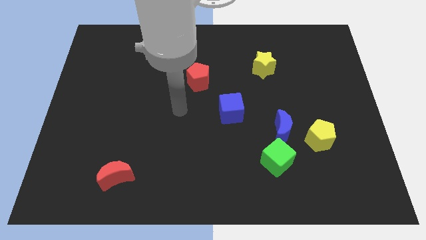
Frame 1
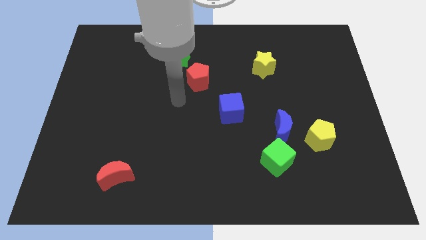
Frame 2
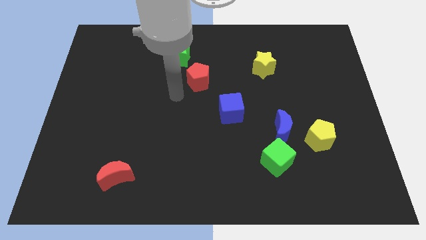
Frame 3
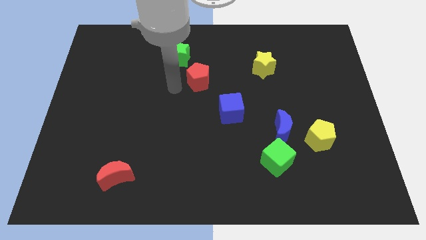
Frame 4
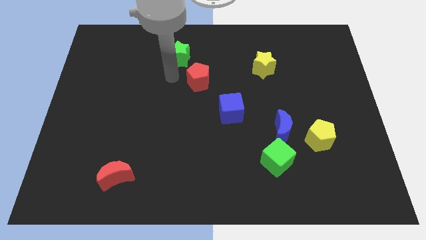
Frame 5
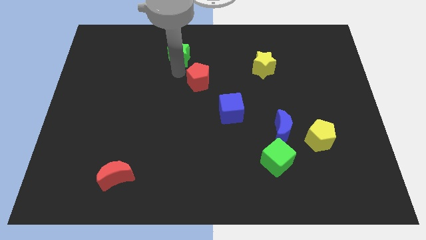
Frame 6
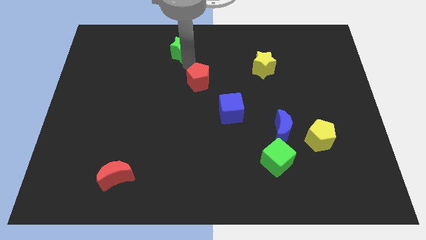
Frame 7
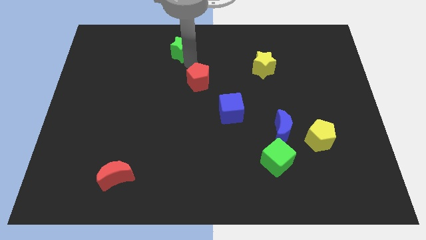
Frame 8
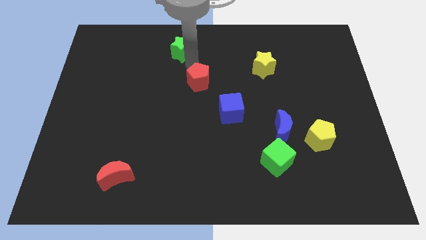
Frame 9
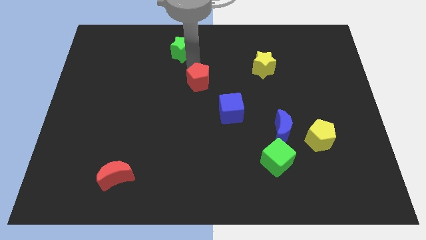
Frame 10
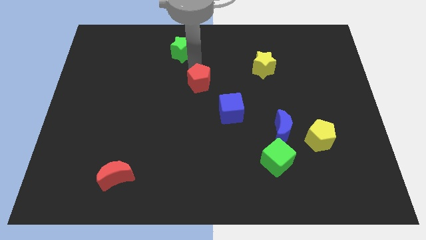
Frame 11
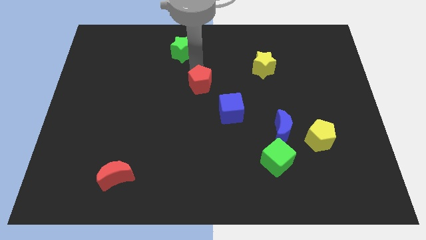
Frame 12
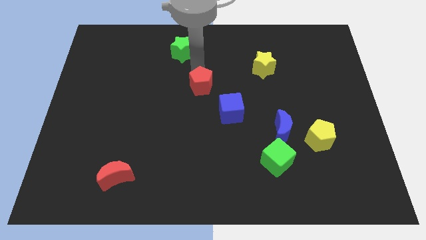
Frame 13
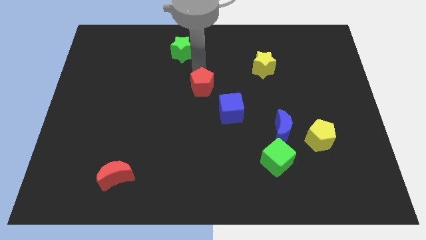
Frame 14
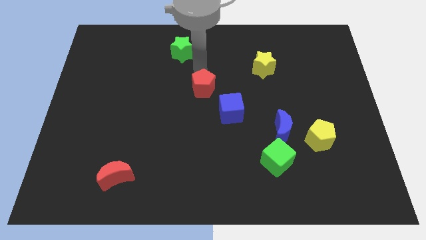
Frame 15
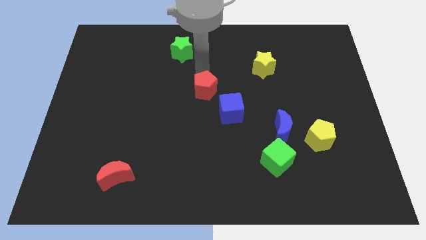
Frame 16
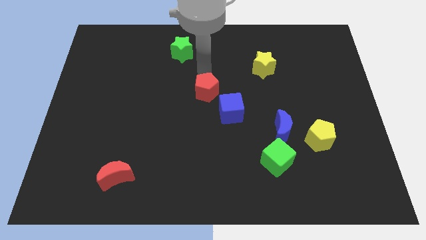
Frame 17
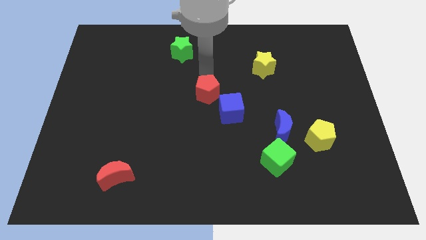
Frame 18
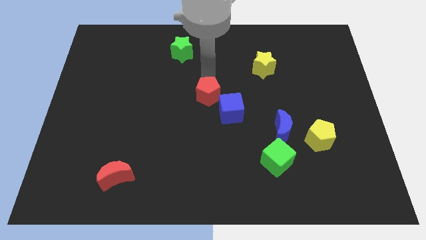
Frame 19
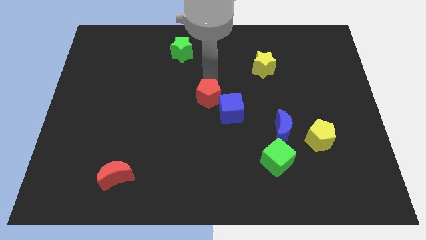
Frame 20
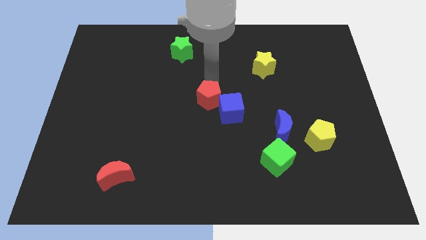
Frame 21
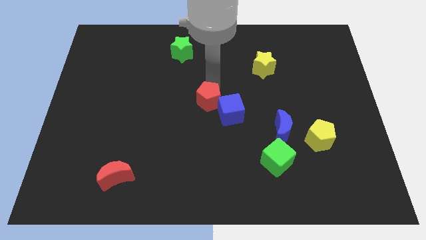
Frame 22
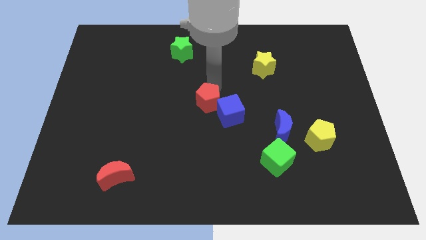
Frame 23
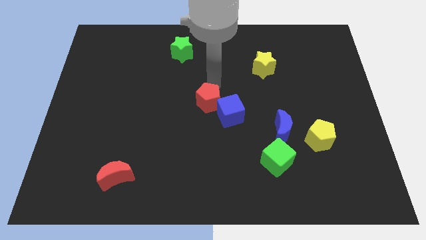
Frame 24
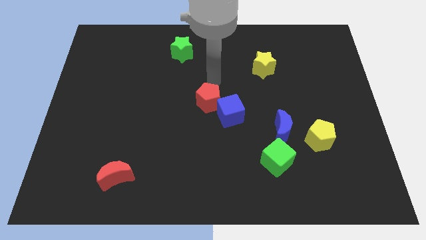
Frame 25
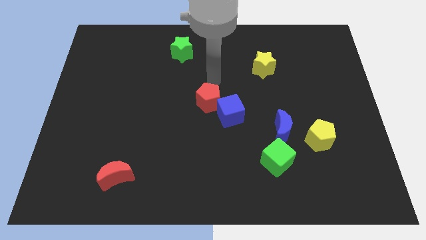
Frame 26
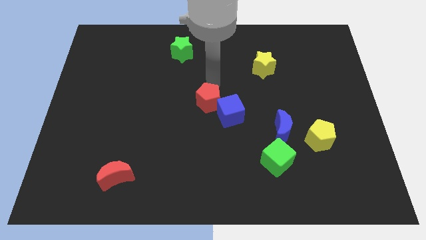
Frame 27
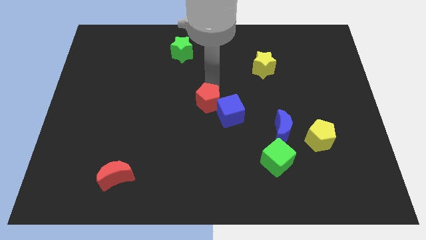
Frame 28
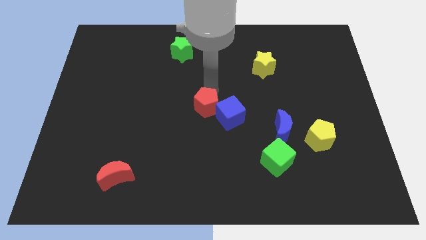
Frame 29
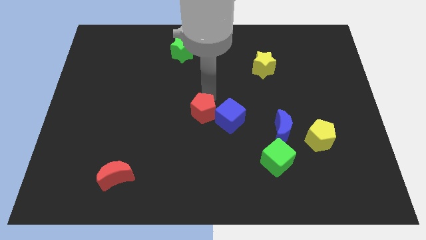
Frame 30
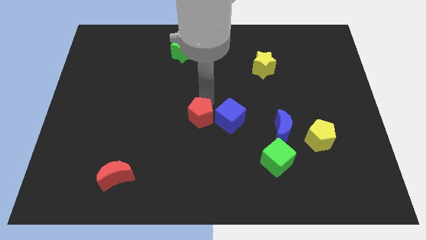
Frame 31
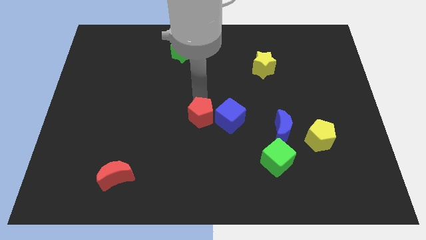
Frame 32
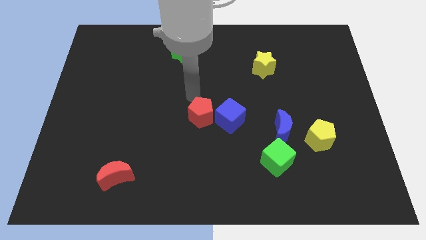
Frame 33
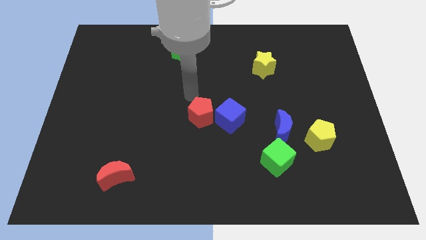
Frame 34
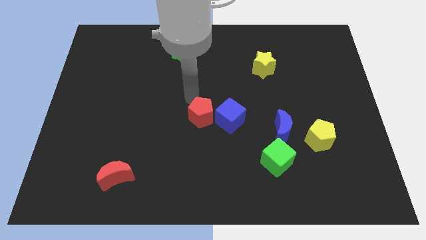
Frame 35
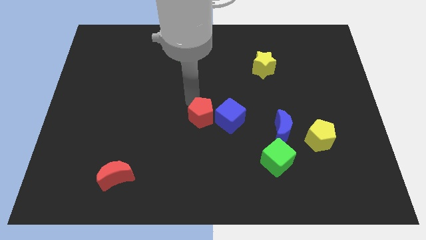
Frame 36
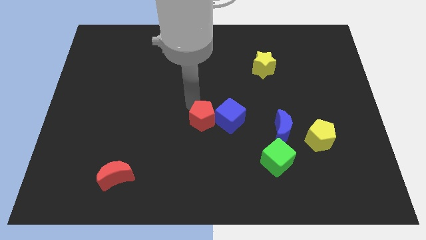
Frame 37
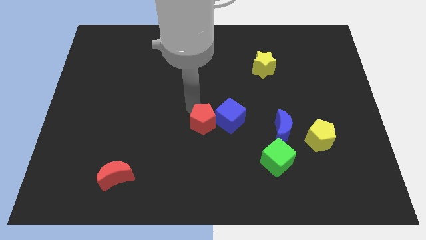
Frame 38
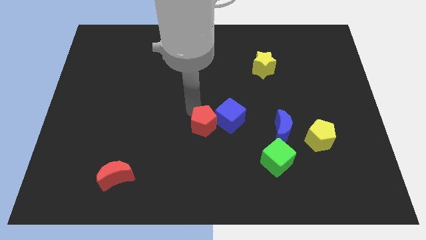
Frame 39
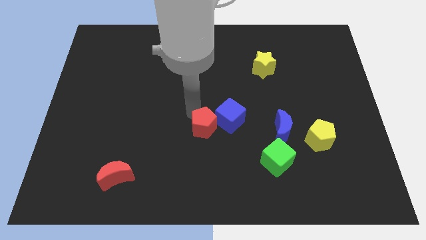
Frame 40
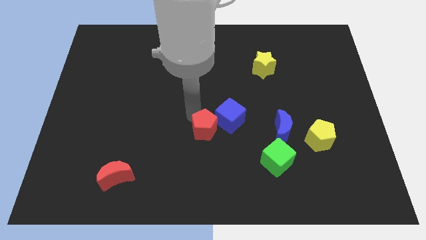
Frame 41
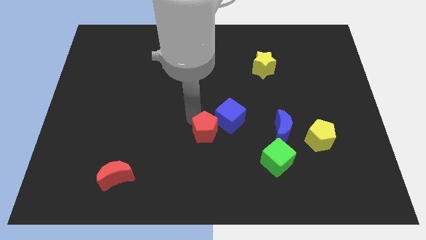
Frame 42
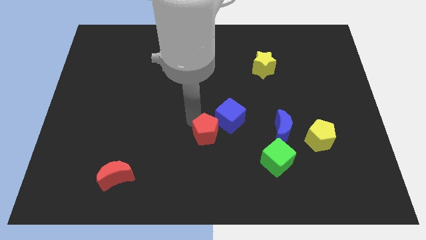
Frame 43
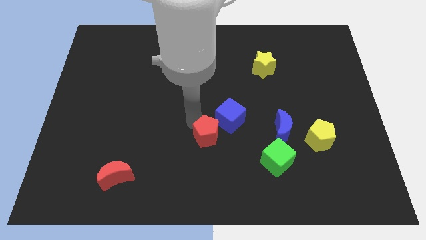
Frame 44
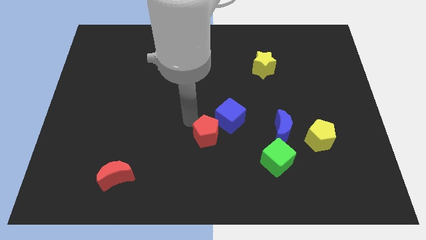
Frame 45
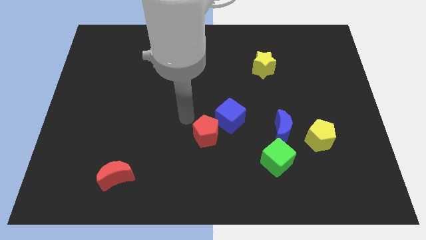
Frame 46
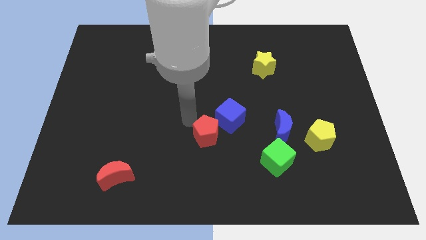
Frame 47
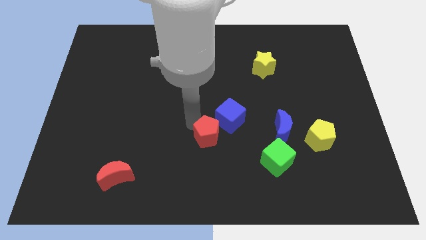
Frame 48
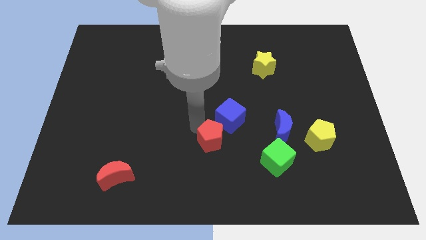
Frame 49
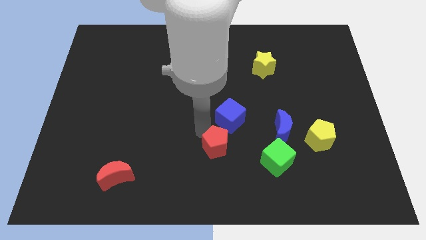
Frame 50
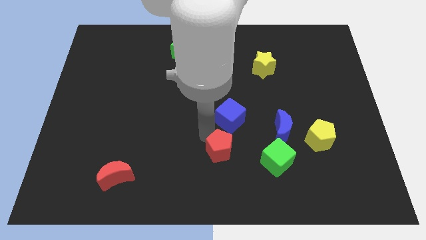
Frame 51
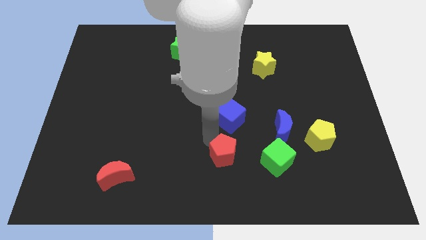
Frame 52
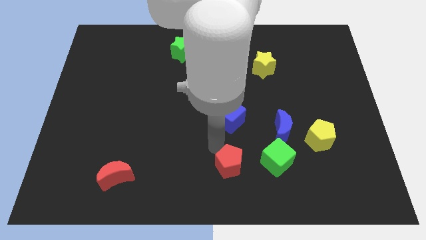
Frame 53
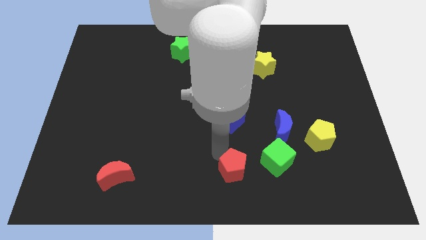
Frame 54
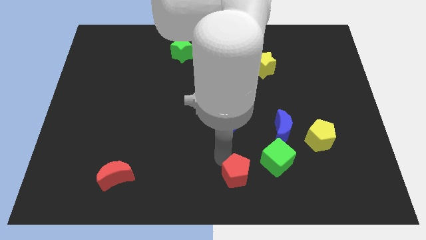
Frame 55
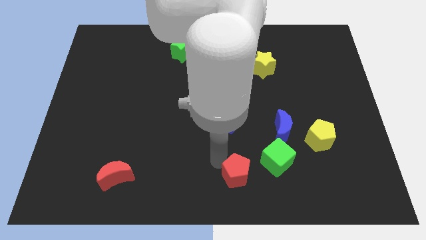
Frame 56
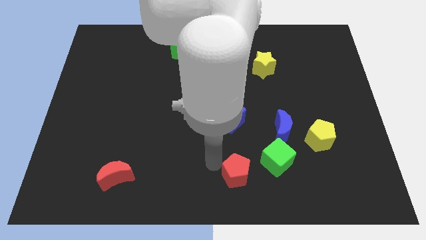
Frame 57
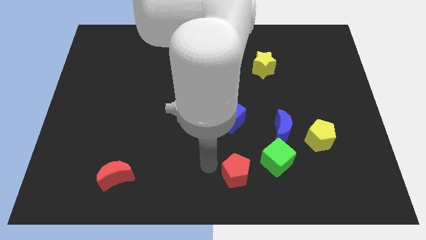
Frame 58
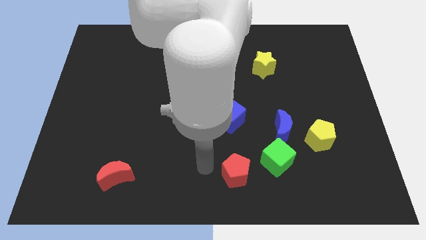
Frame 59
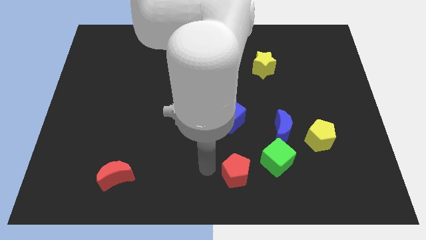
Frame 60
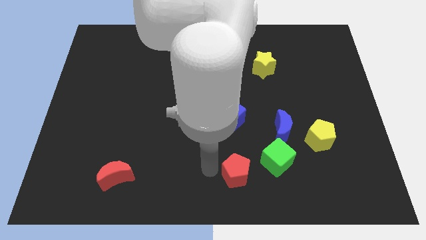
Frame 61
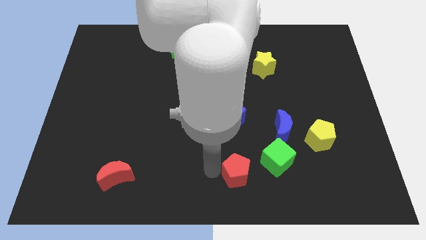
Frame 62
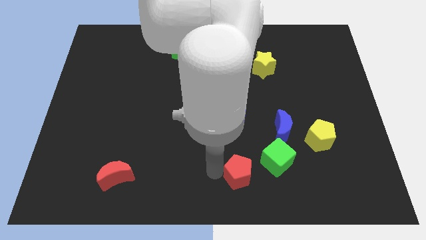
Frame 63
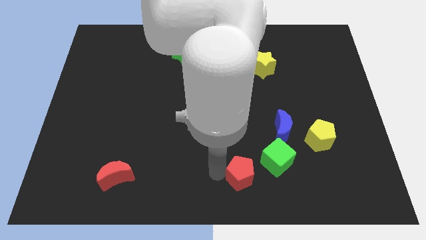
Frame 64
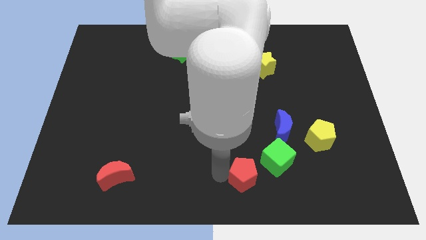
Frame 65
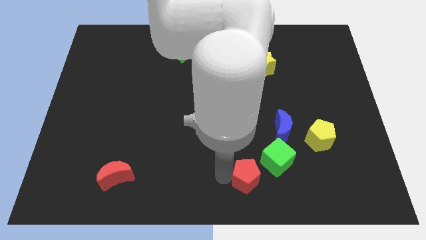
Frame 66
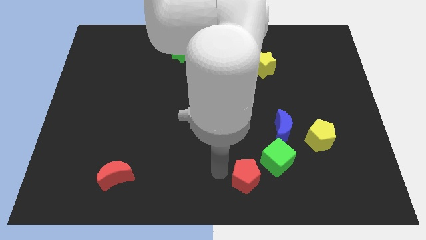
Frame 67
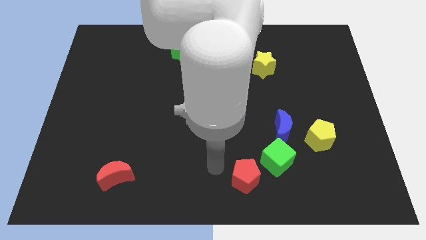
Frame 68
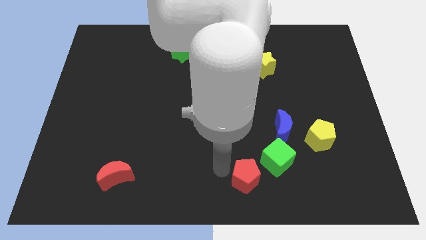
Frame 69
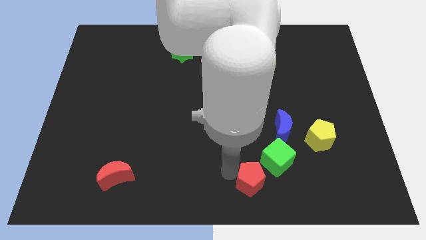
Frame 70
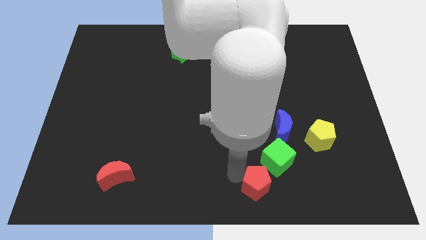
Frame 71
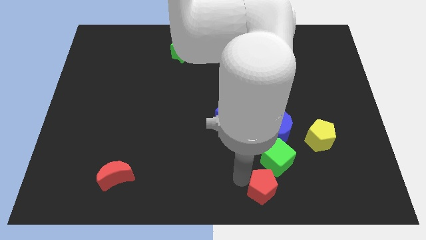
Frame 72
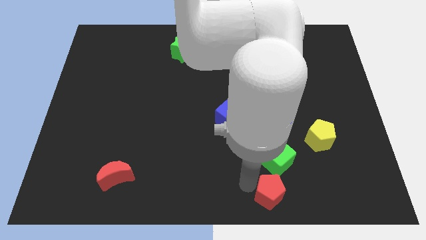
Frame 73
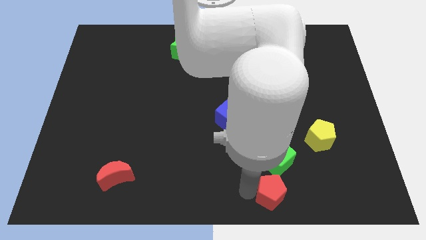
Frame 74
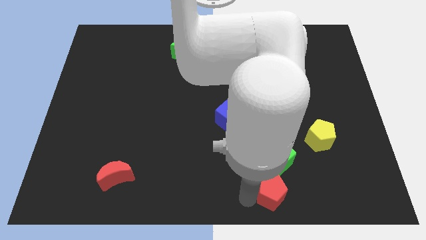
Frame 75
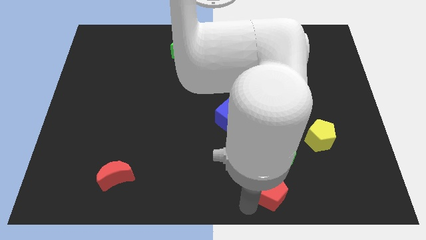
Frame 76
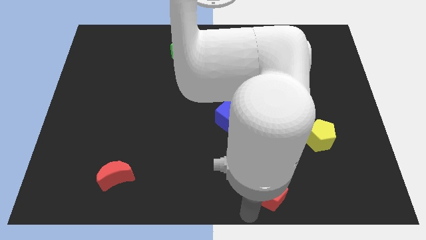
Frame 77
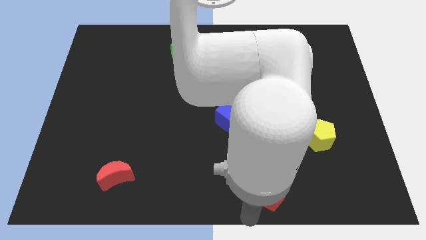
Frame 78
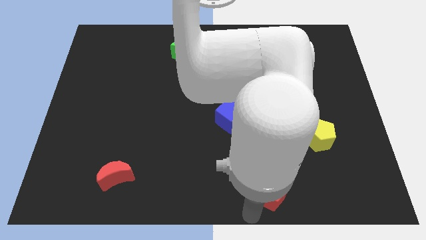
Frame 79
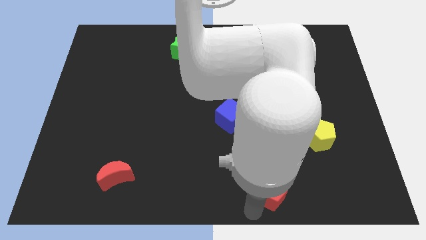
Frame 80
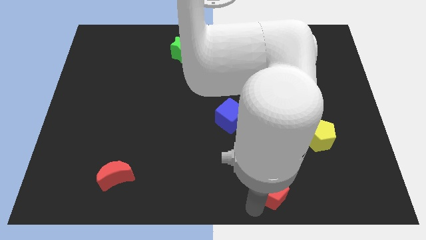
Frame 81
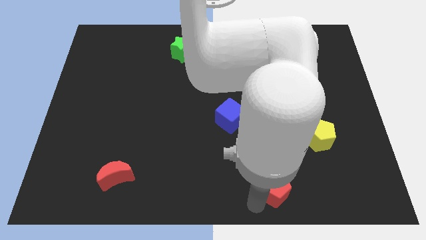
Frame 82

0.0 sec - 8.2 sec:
move the red pentagon to the bottom of the blue moon
